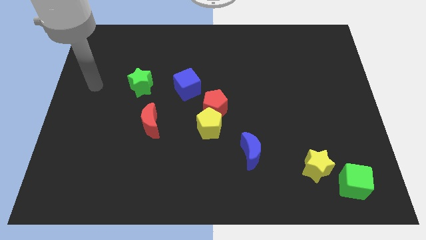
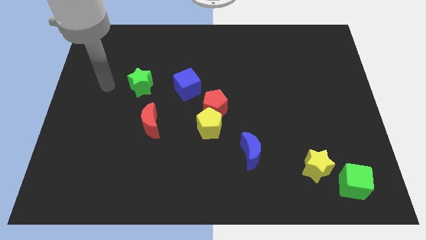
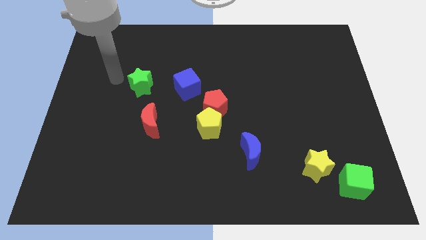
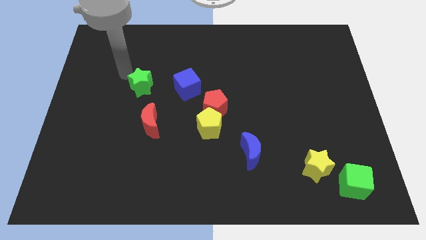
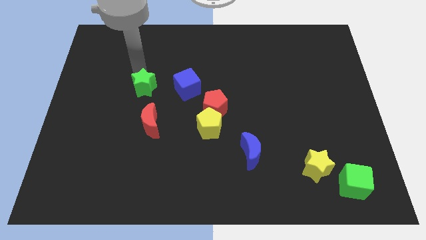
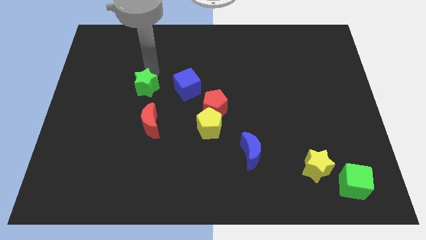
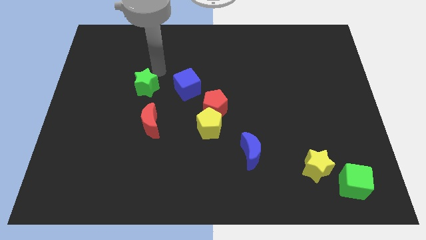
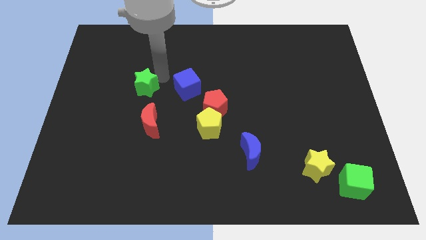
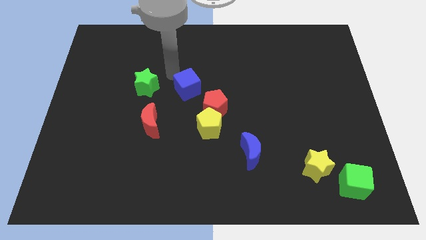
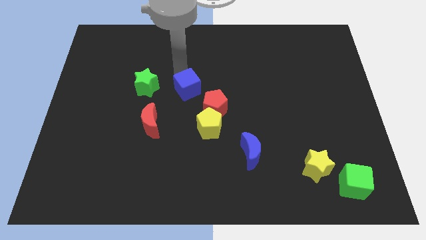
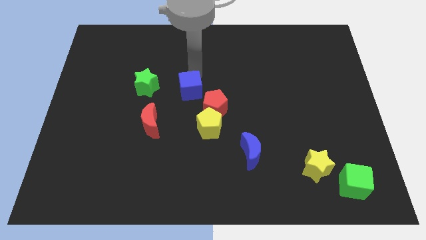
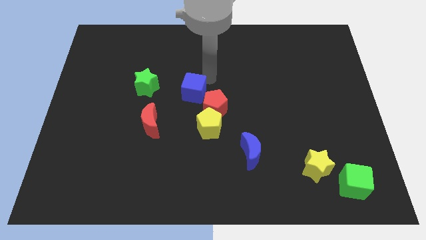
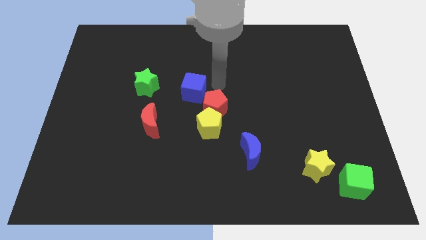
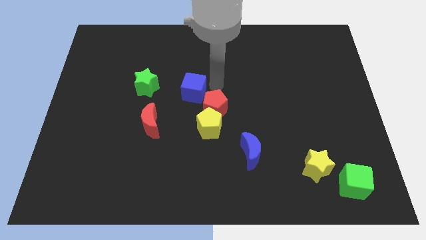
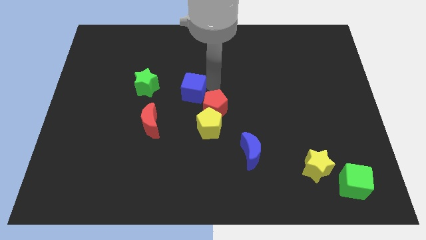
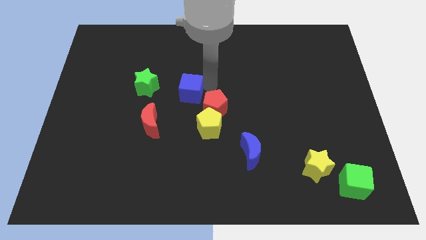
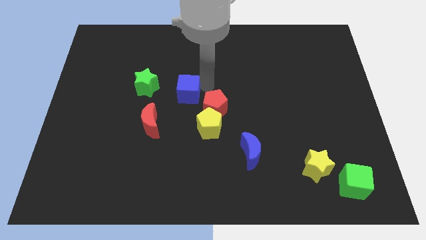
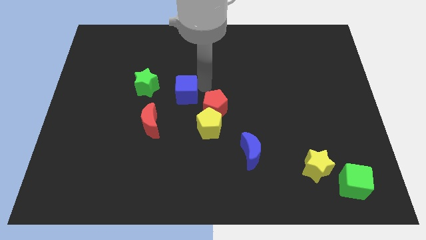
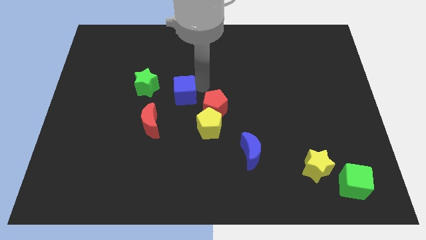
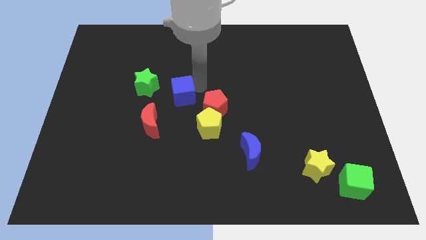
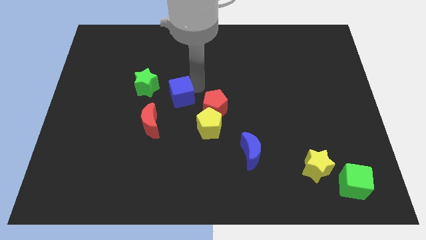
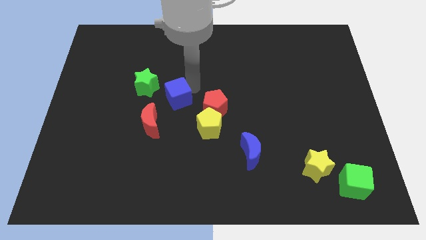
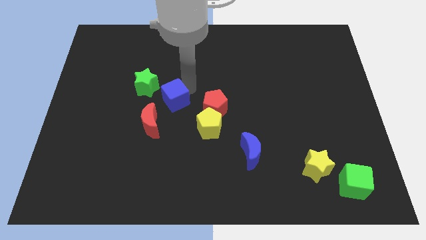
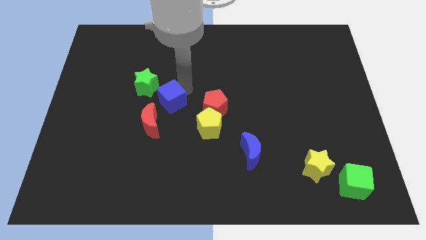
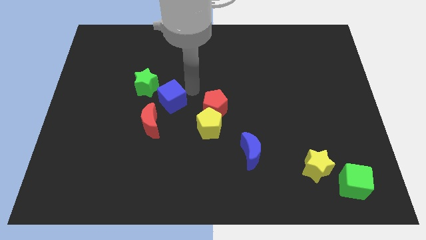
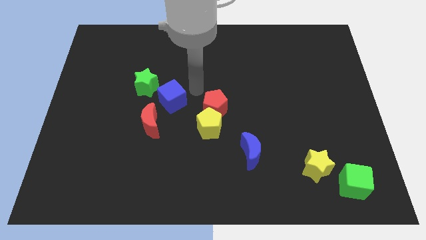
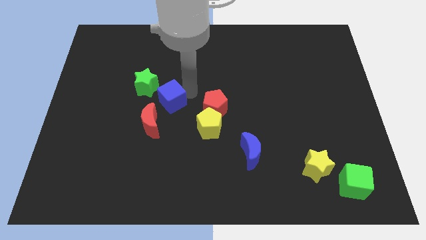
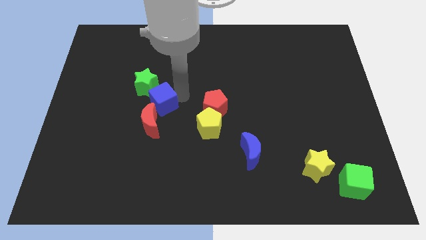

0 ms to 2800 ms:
push the blue cube slightly down and then to the left

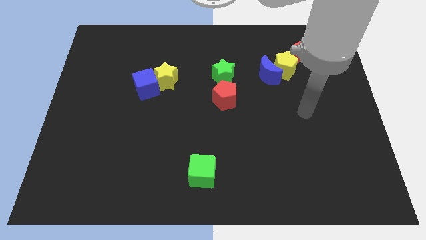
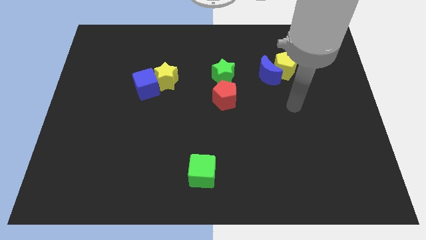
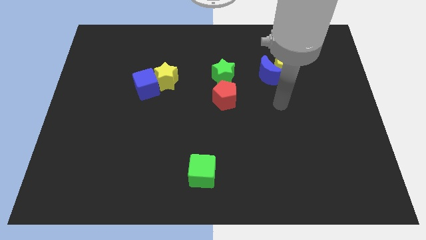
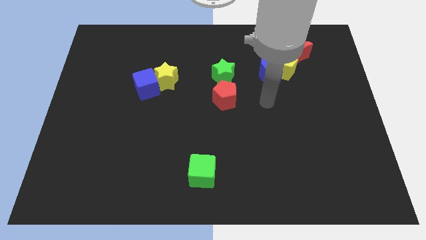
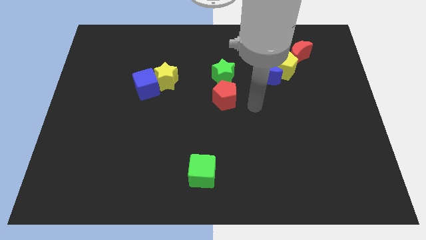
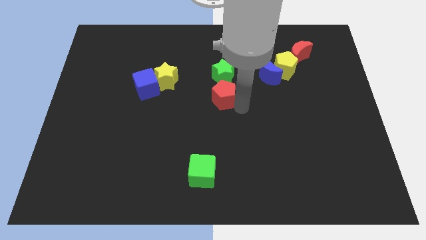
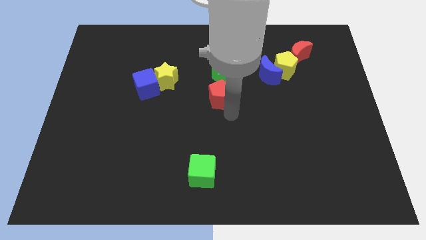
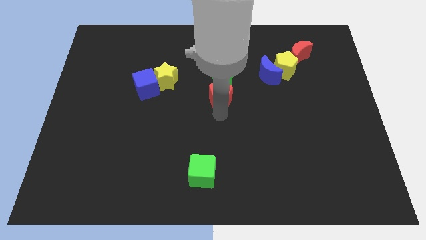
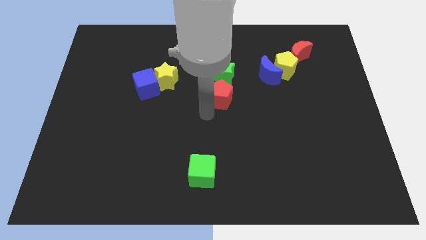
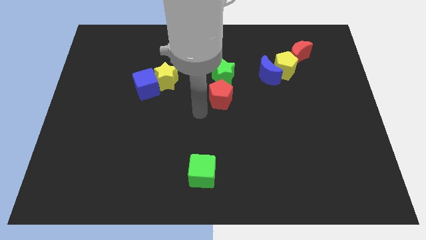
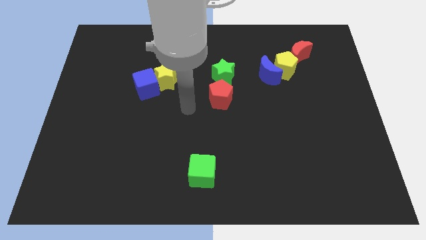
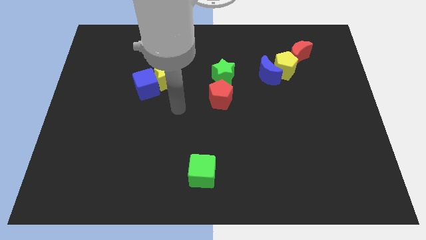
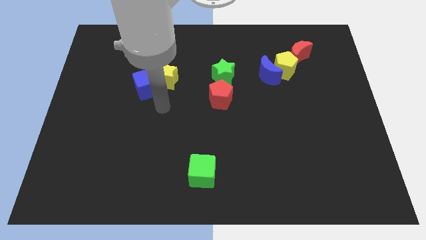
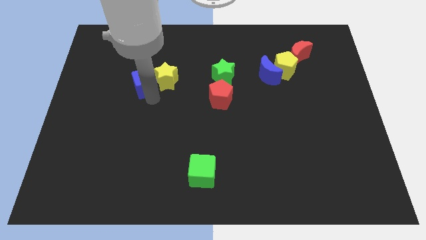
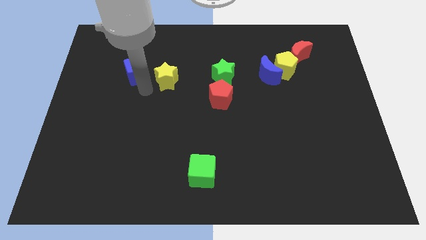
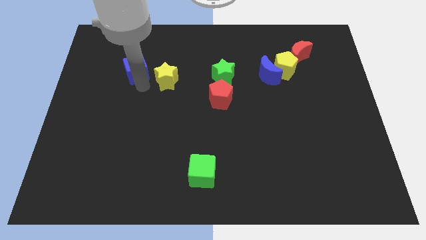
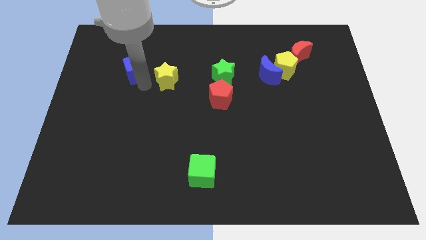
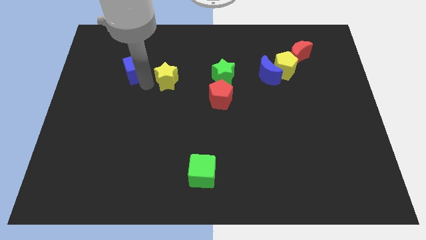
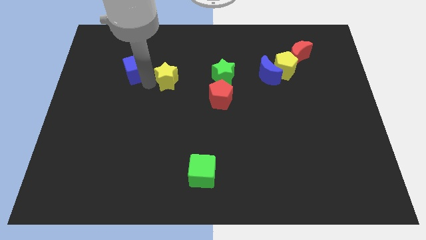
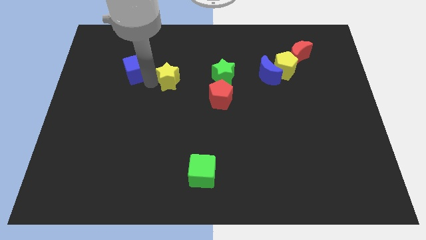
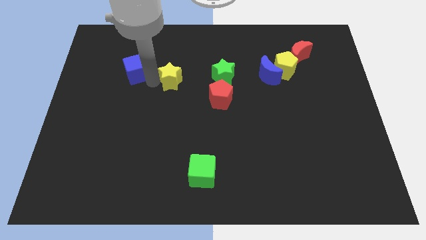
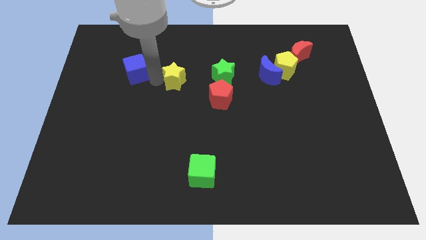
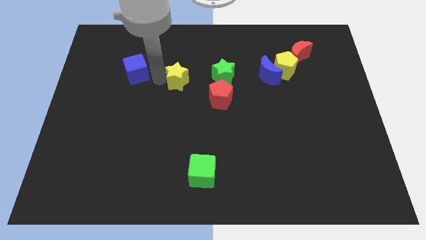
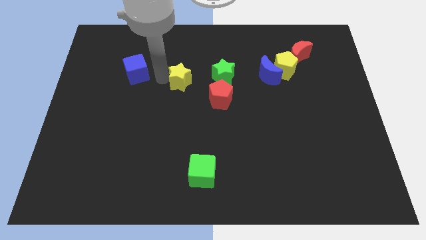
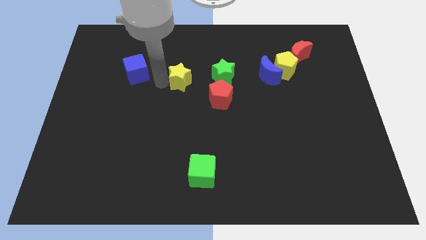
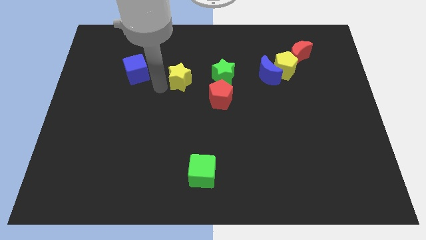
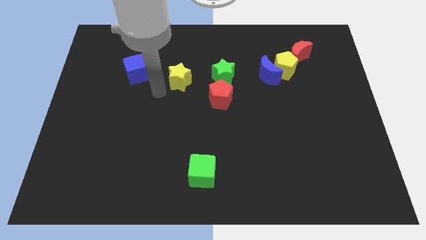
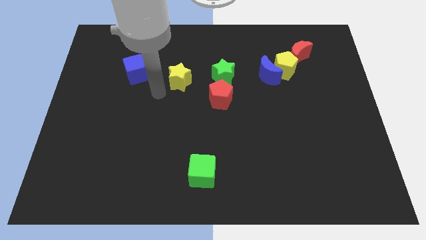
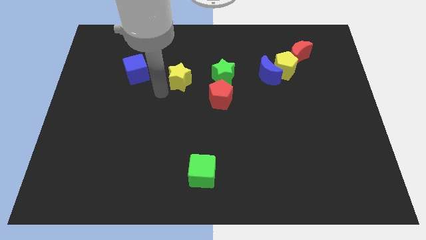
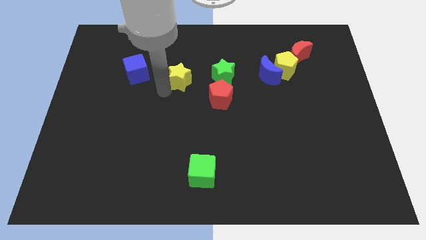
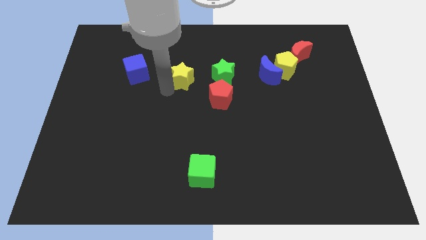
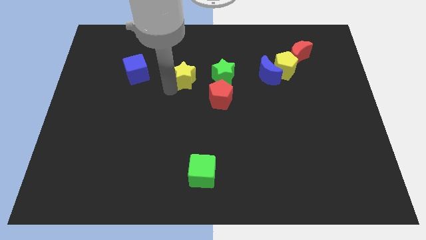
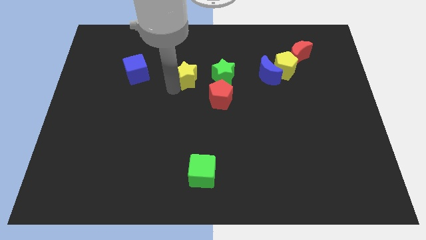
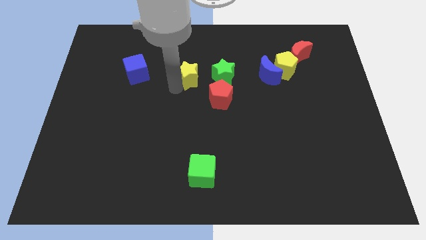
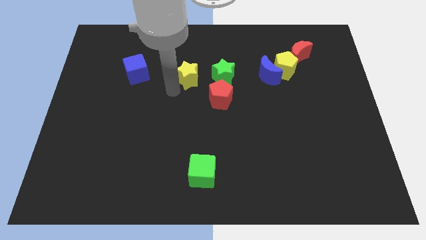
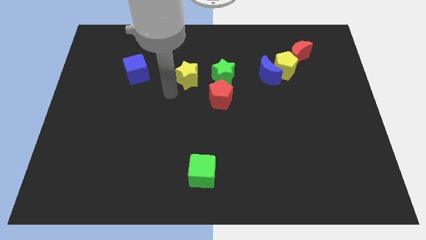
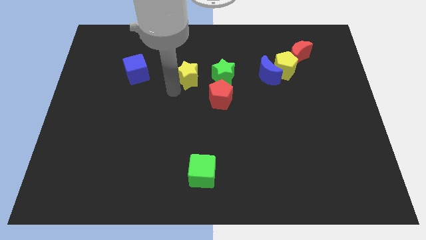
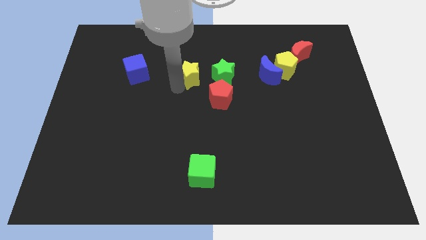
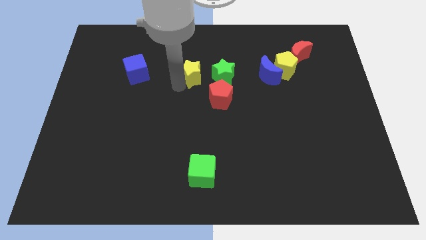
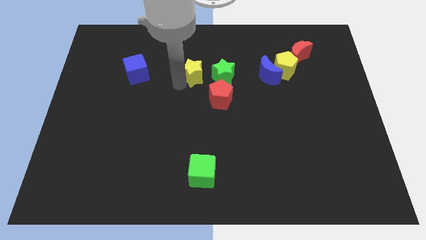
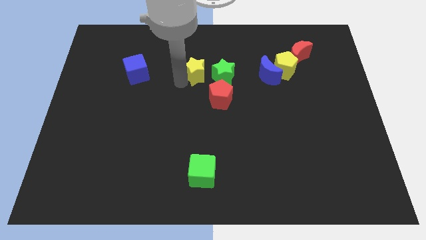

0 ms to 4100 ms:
slightly push the yellow star to the right

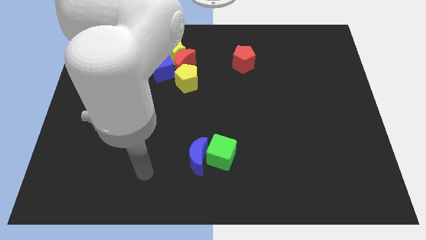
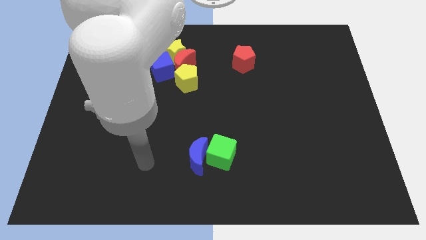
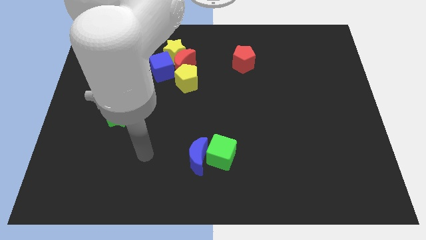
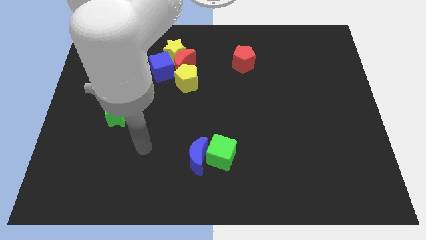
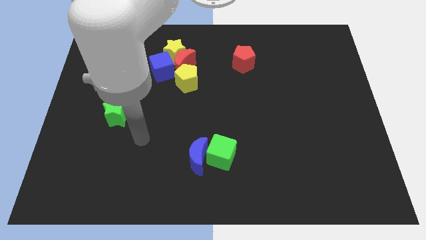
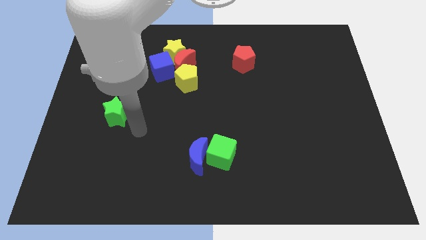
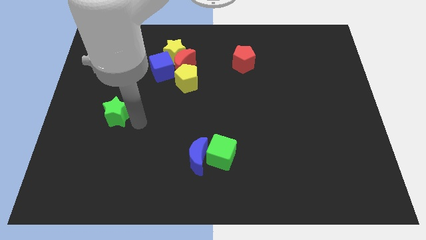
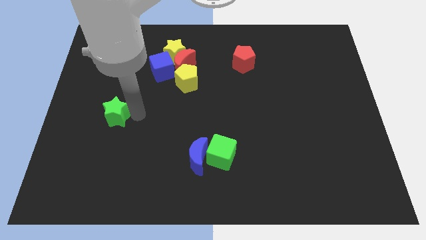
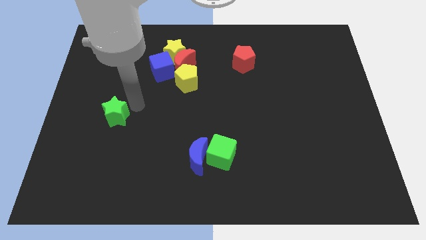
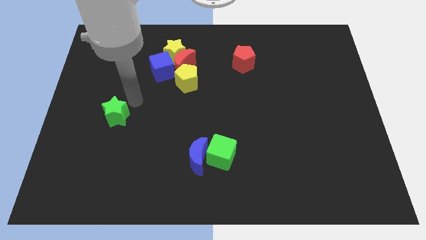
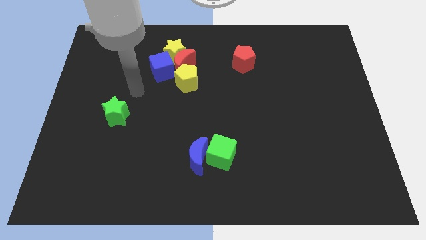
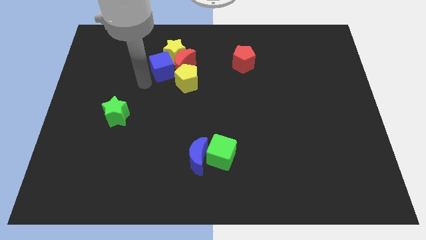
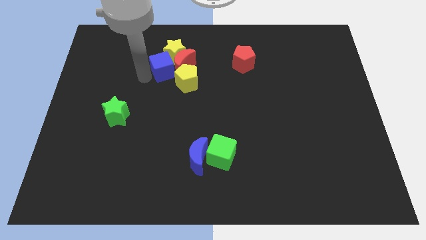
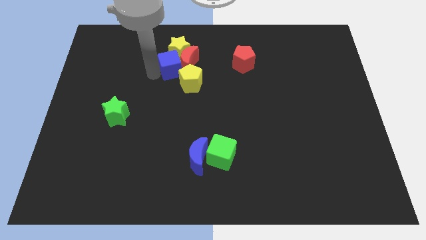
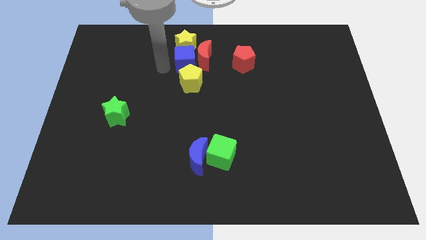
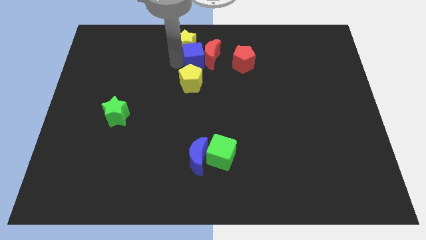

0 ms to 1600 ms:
slide the red moon a bit to the right
